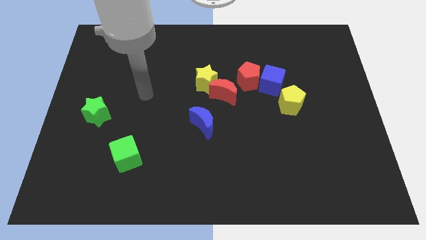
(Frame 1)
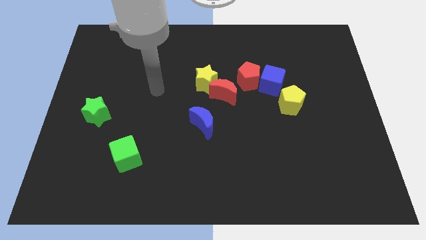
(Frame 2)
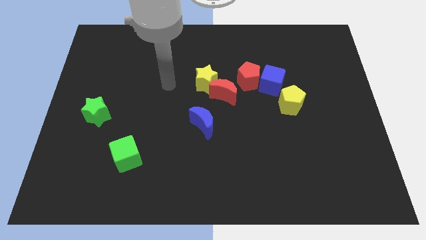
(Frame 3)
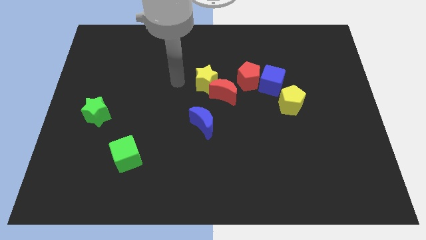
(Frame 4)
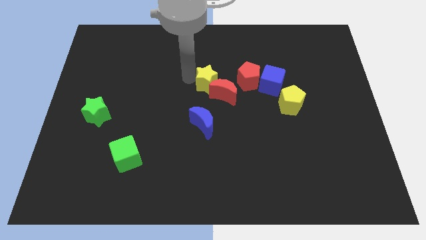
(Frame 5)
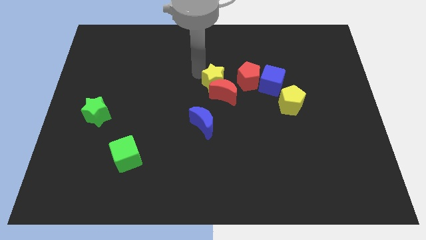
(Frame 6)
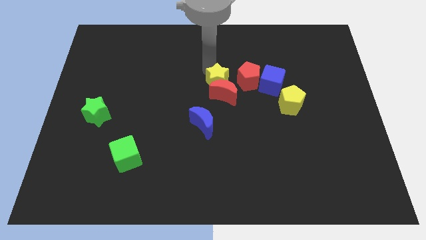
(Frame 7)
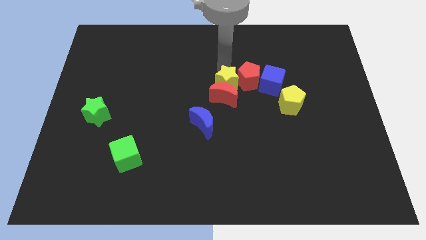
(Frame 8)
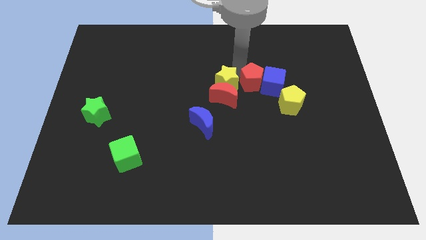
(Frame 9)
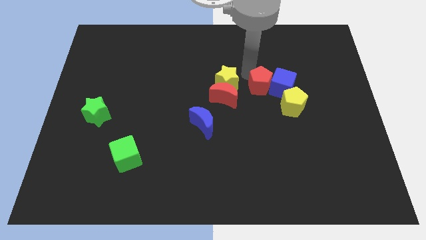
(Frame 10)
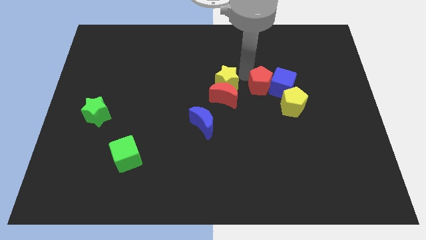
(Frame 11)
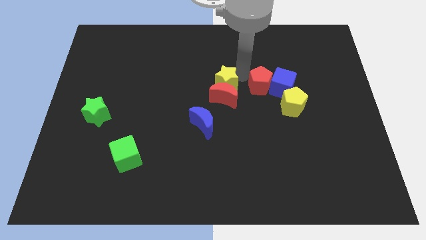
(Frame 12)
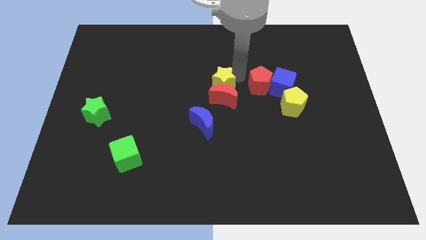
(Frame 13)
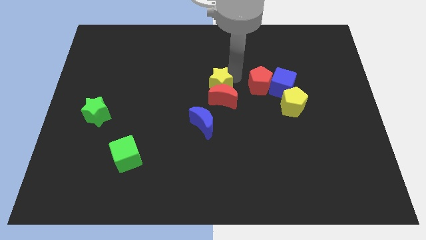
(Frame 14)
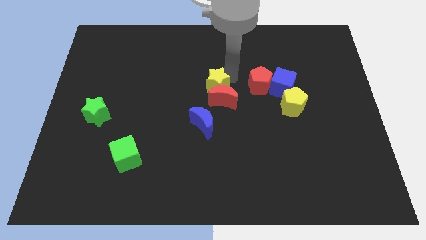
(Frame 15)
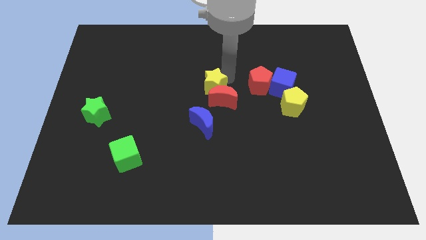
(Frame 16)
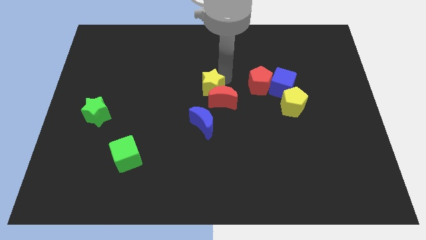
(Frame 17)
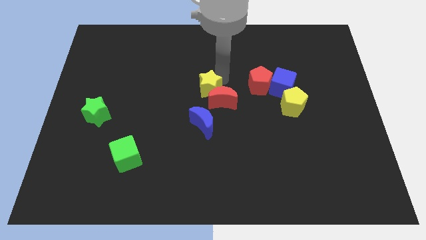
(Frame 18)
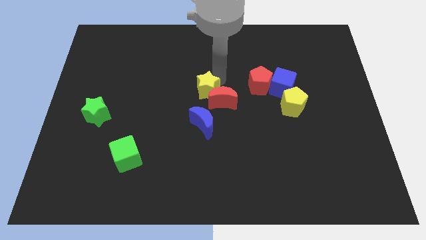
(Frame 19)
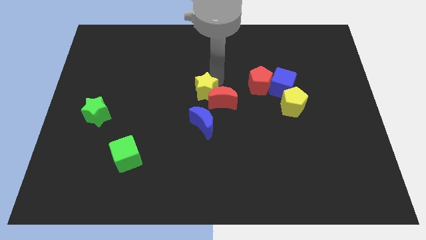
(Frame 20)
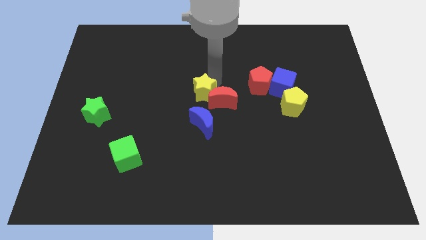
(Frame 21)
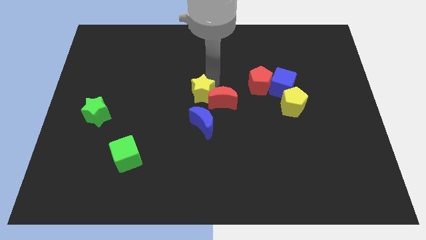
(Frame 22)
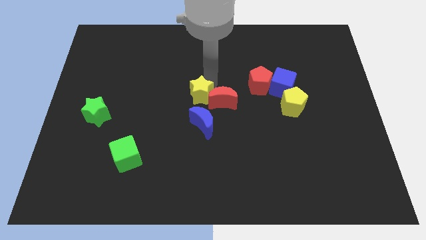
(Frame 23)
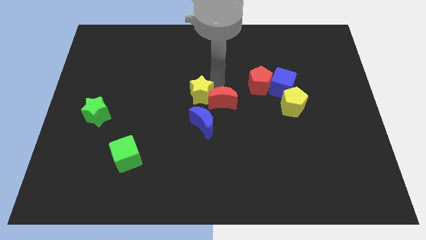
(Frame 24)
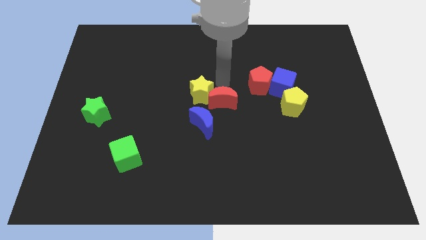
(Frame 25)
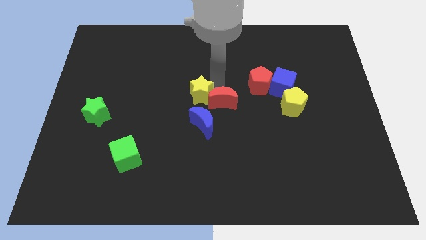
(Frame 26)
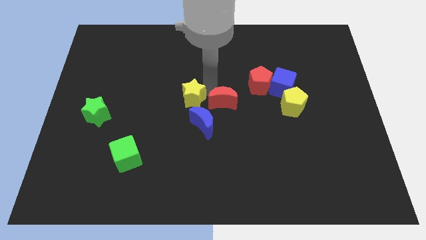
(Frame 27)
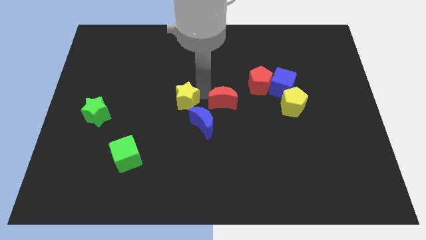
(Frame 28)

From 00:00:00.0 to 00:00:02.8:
slightly move the yellow star downwards and left

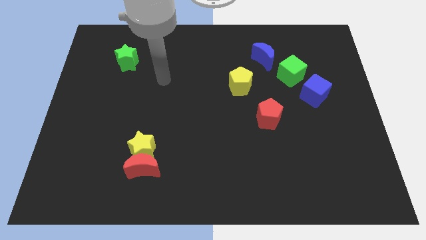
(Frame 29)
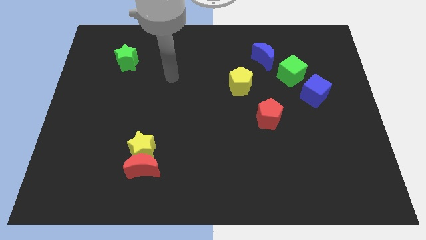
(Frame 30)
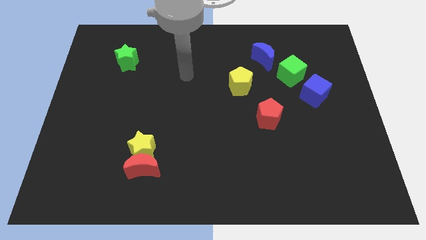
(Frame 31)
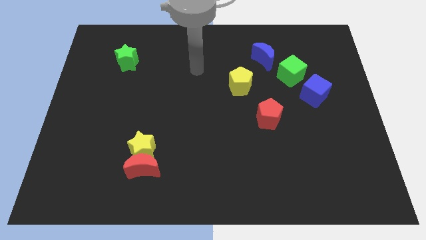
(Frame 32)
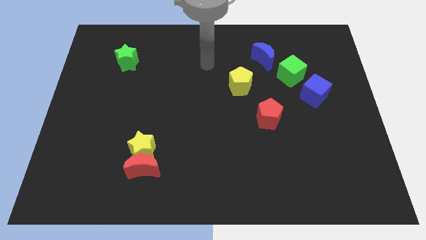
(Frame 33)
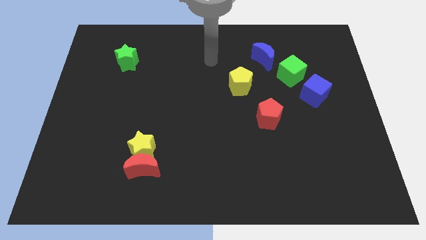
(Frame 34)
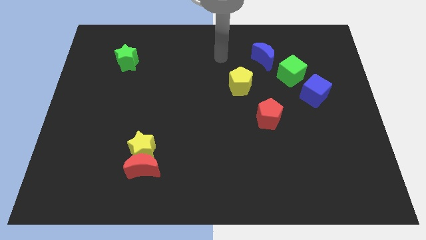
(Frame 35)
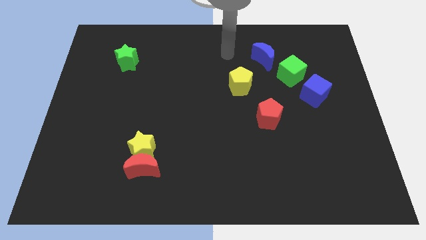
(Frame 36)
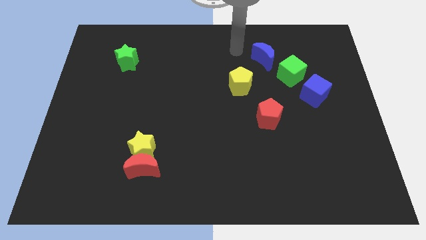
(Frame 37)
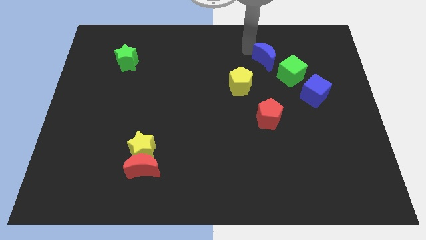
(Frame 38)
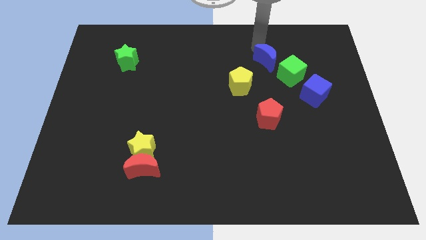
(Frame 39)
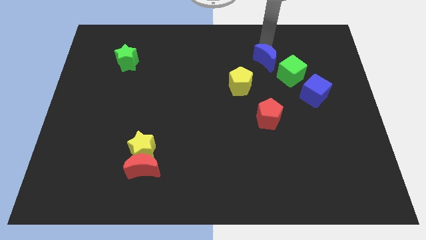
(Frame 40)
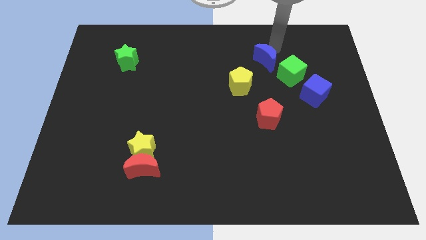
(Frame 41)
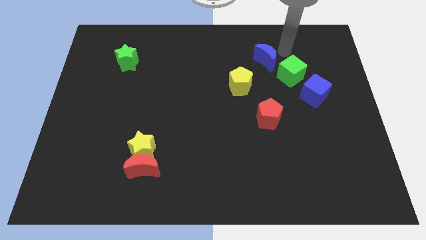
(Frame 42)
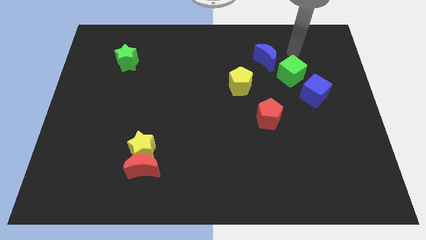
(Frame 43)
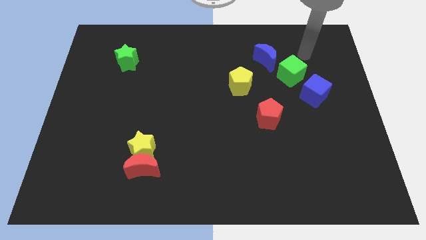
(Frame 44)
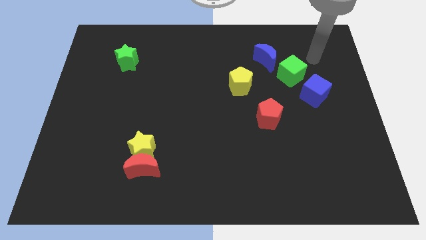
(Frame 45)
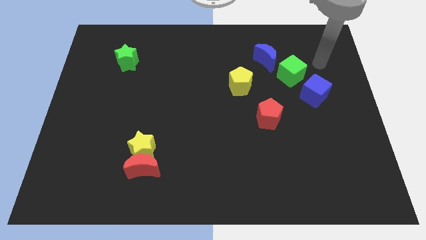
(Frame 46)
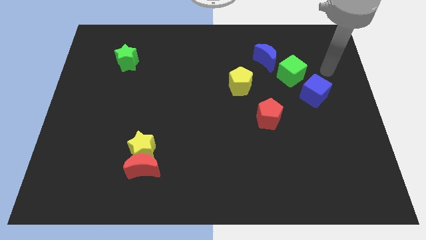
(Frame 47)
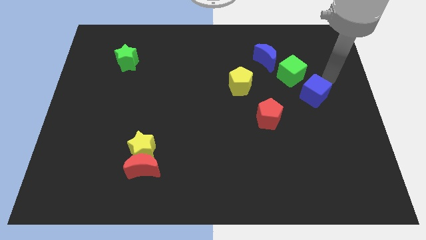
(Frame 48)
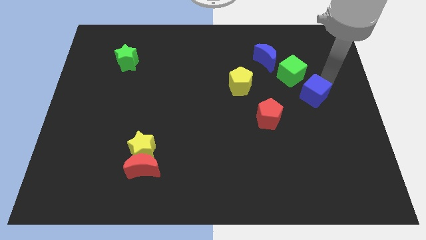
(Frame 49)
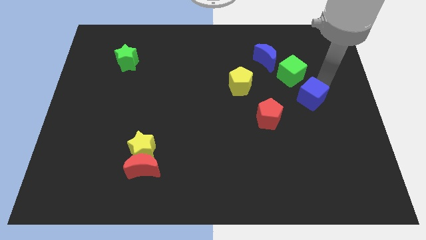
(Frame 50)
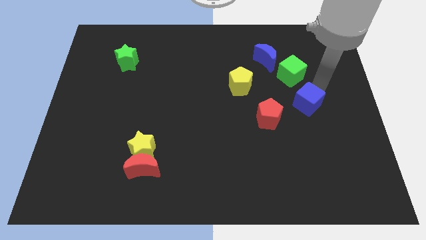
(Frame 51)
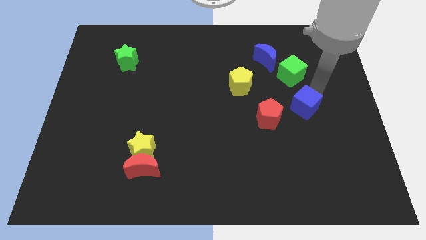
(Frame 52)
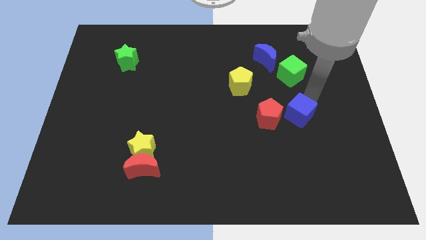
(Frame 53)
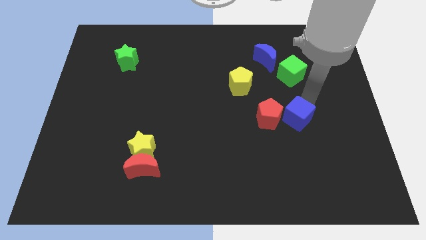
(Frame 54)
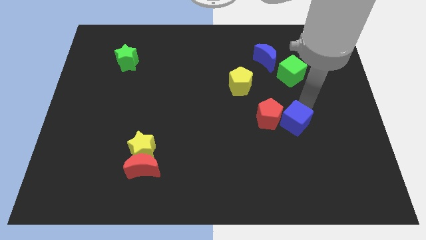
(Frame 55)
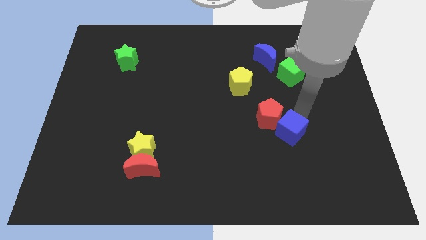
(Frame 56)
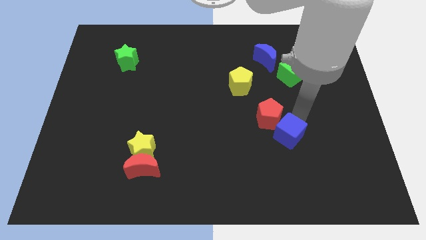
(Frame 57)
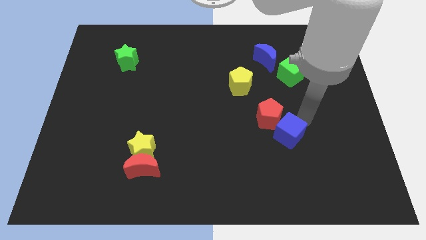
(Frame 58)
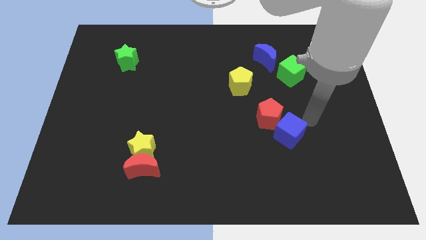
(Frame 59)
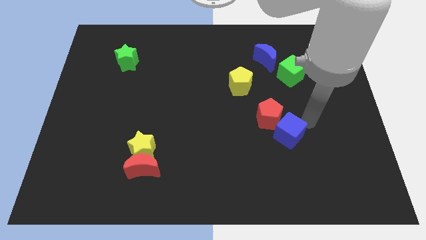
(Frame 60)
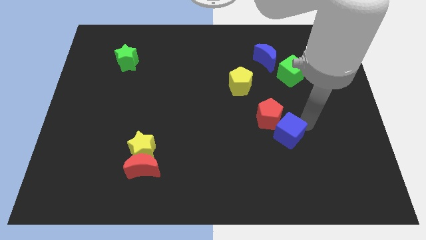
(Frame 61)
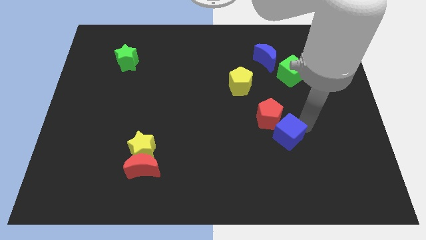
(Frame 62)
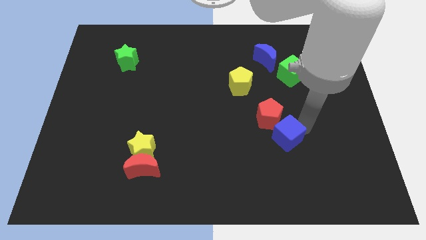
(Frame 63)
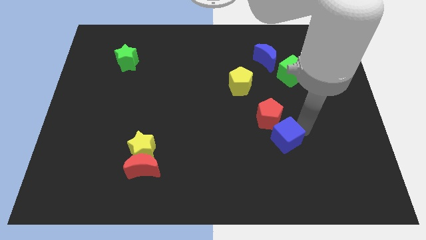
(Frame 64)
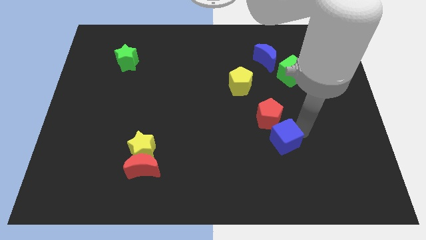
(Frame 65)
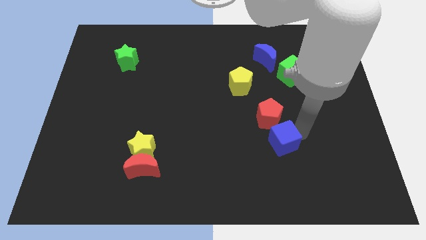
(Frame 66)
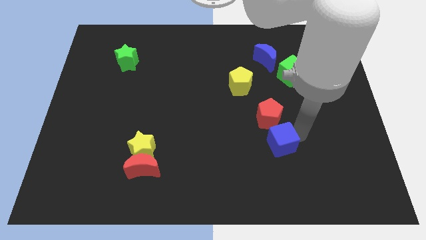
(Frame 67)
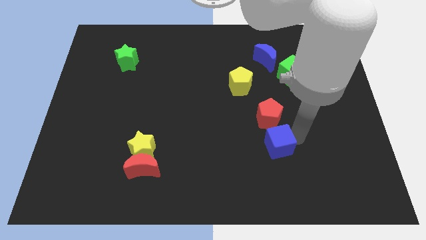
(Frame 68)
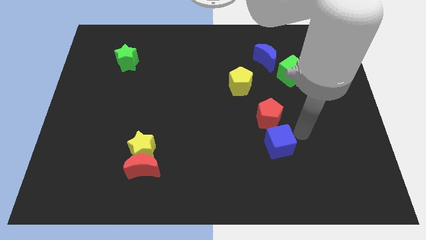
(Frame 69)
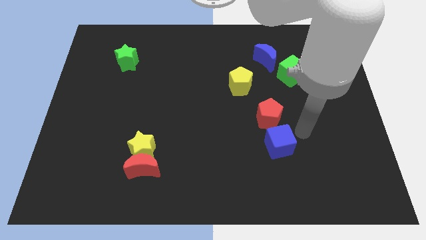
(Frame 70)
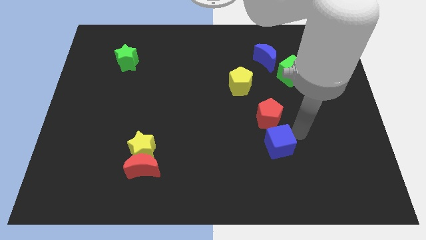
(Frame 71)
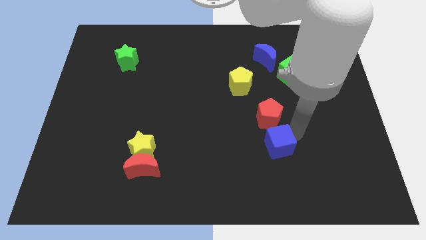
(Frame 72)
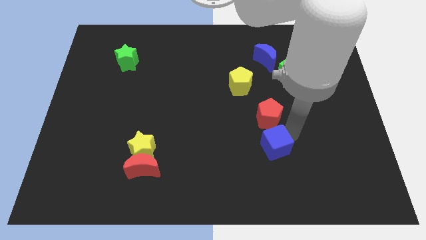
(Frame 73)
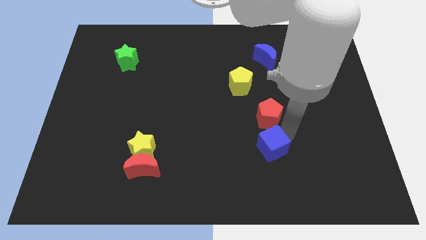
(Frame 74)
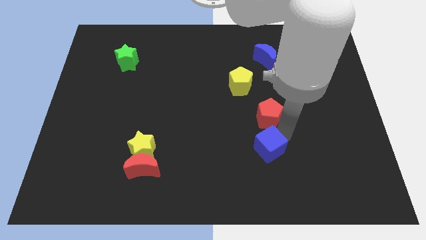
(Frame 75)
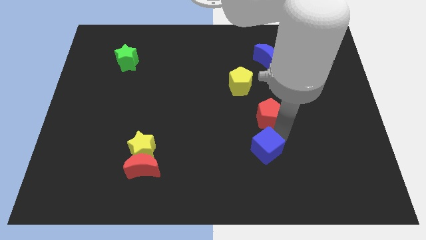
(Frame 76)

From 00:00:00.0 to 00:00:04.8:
move the blue cube downwards and to the left

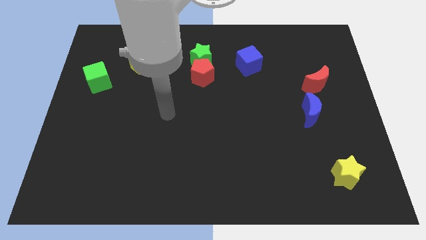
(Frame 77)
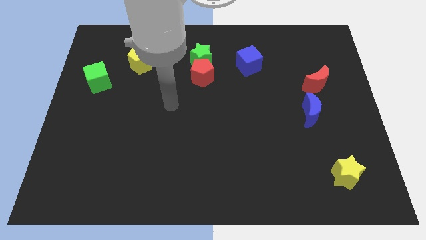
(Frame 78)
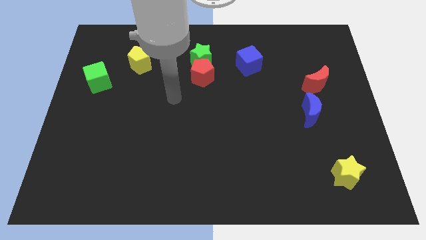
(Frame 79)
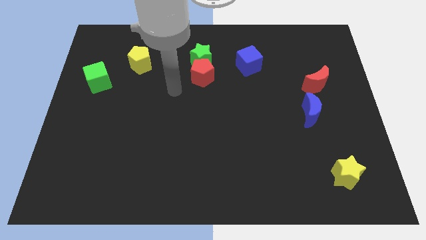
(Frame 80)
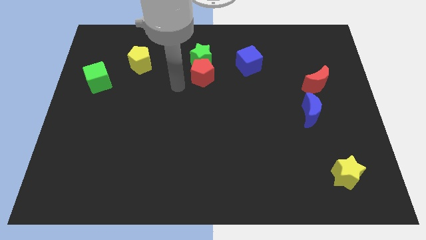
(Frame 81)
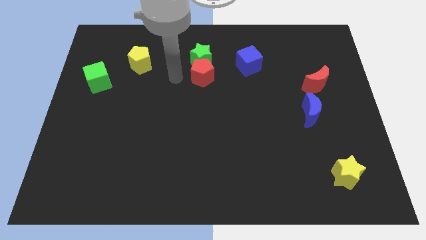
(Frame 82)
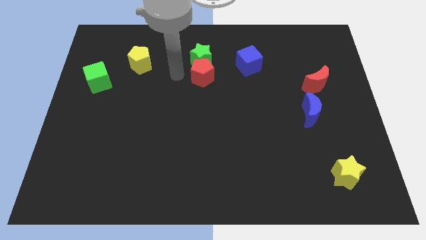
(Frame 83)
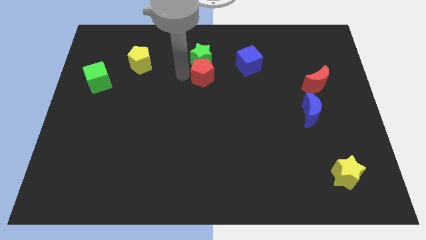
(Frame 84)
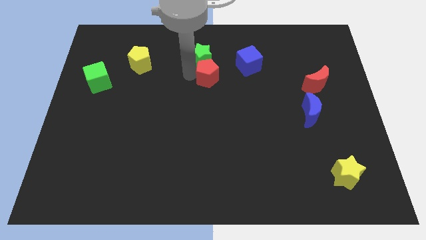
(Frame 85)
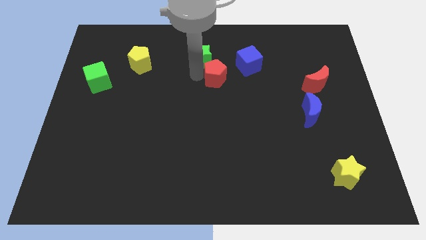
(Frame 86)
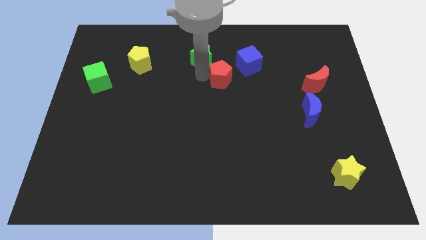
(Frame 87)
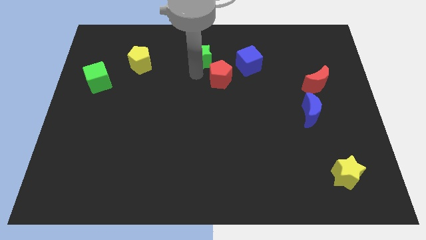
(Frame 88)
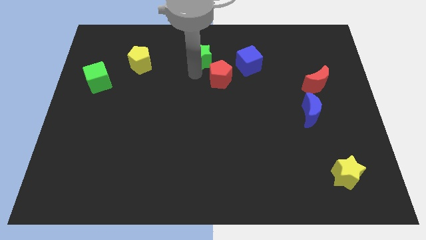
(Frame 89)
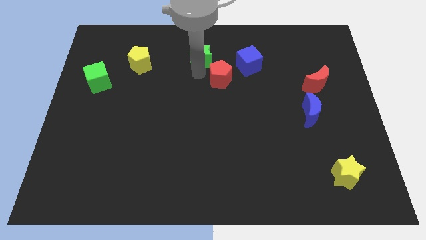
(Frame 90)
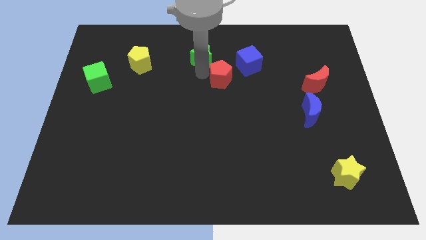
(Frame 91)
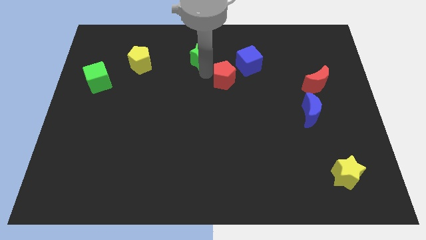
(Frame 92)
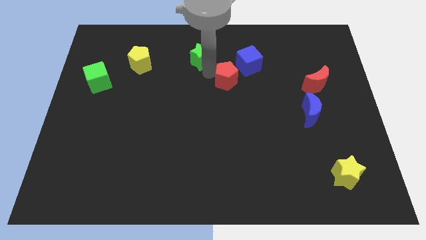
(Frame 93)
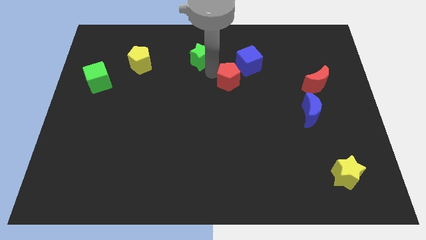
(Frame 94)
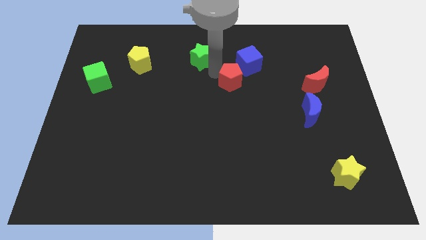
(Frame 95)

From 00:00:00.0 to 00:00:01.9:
slightly push the red pentagon to the right
